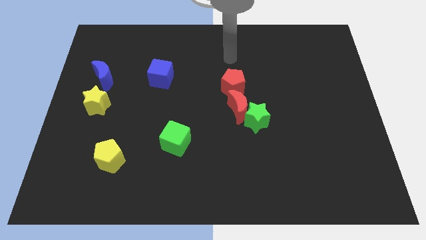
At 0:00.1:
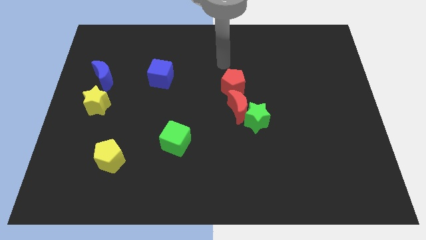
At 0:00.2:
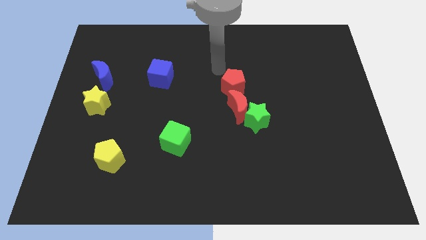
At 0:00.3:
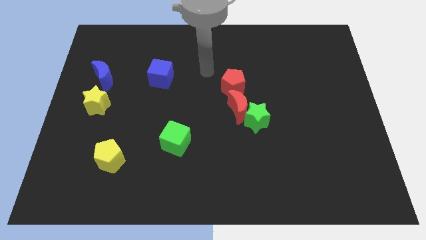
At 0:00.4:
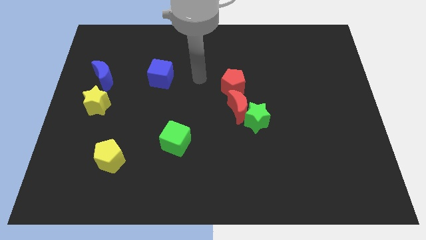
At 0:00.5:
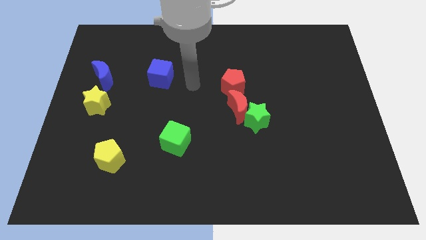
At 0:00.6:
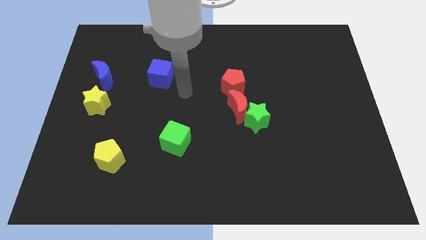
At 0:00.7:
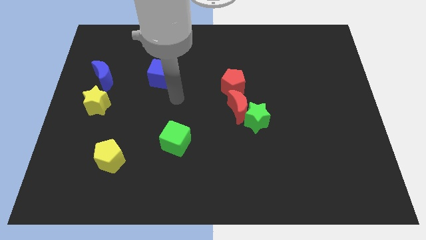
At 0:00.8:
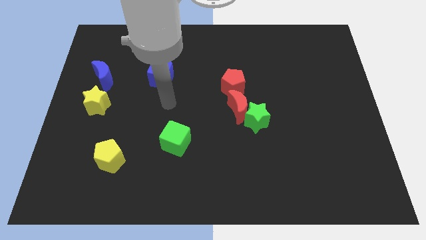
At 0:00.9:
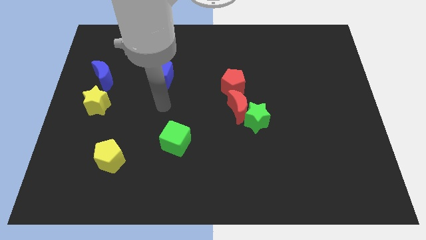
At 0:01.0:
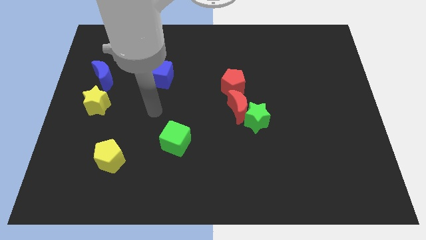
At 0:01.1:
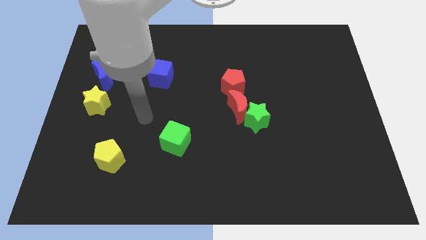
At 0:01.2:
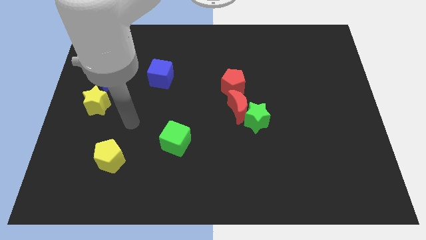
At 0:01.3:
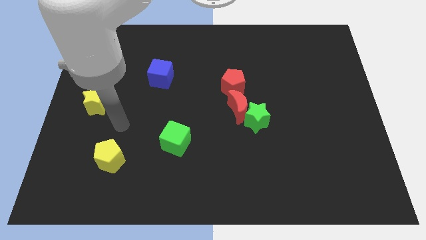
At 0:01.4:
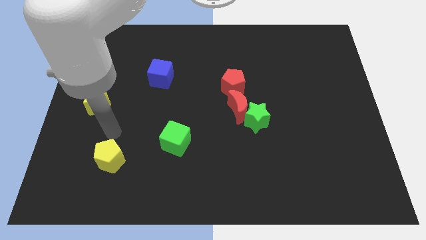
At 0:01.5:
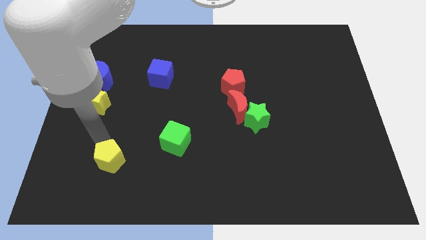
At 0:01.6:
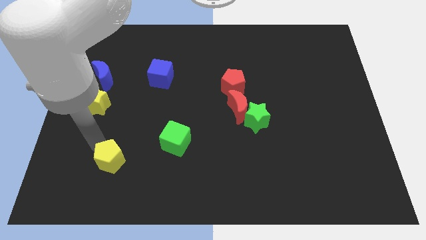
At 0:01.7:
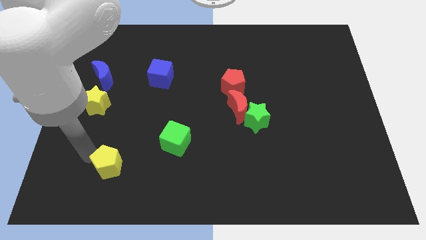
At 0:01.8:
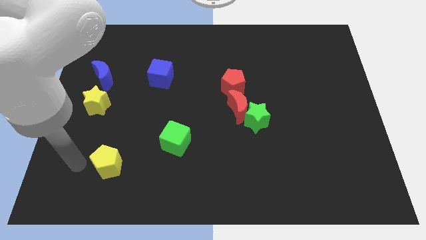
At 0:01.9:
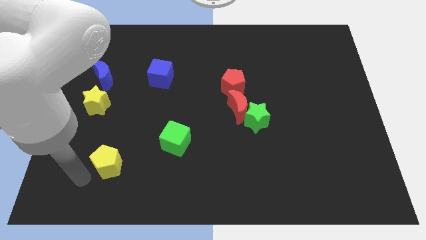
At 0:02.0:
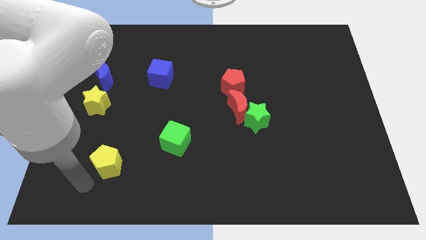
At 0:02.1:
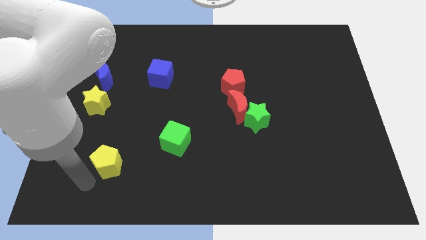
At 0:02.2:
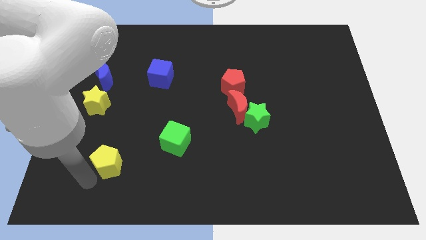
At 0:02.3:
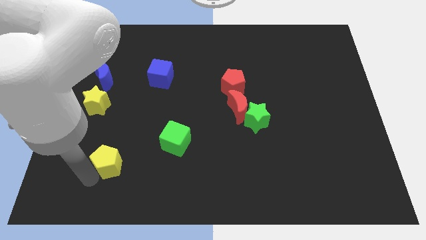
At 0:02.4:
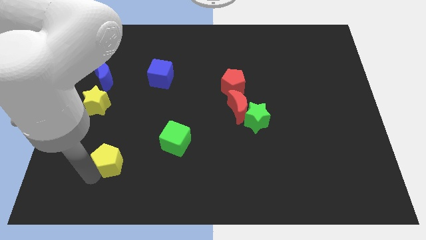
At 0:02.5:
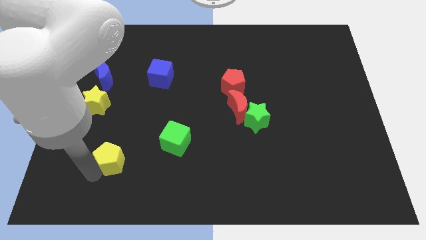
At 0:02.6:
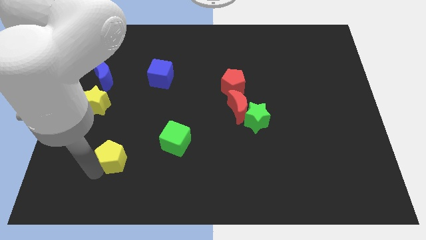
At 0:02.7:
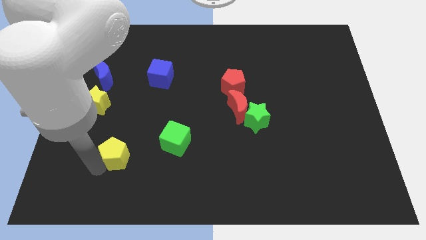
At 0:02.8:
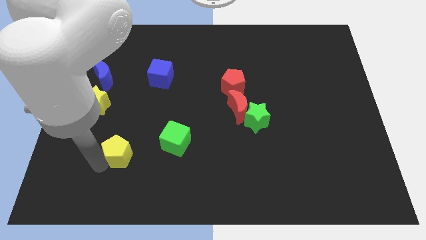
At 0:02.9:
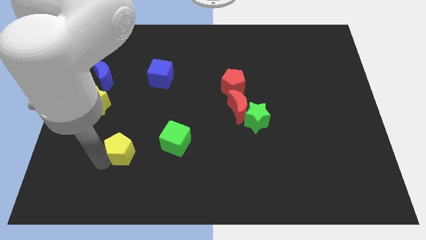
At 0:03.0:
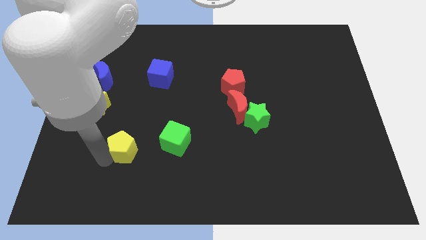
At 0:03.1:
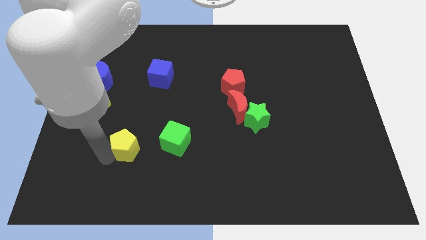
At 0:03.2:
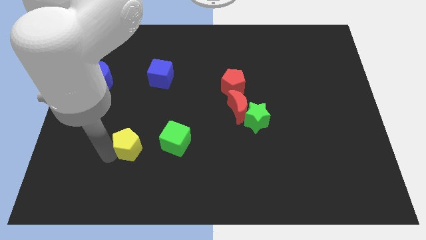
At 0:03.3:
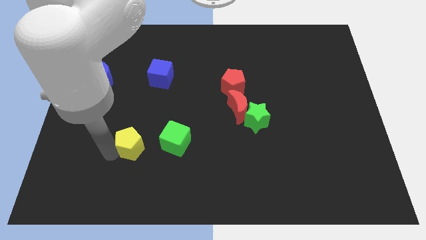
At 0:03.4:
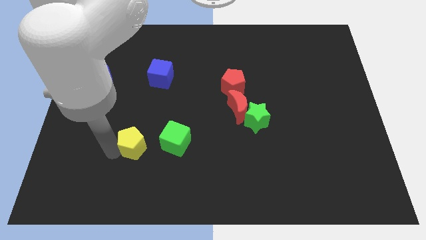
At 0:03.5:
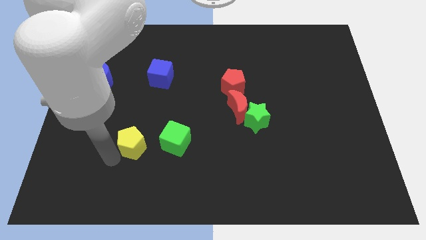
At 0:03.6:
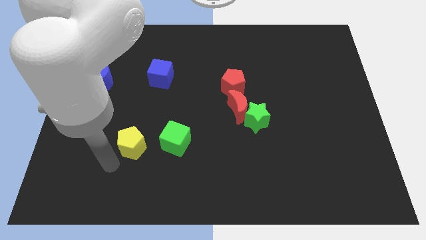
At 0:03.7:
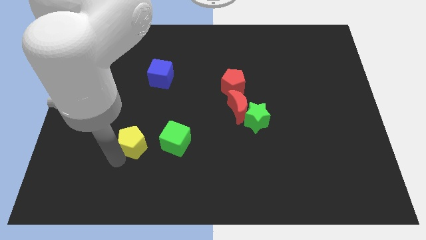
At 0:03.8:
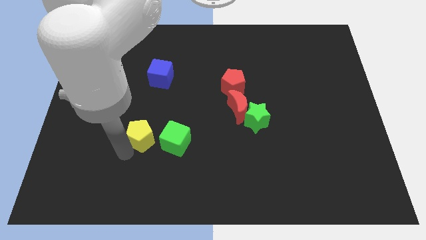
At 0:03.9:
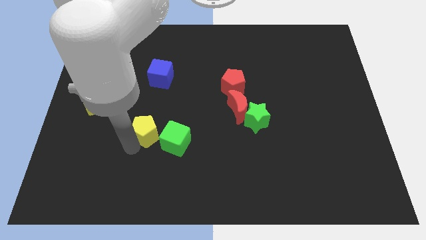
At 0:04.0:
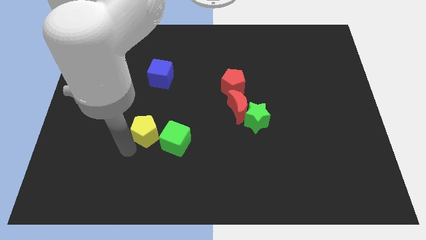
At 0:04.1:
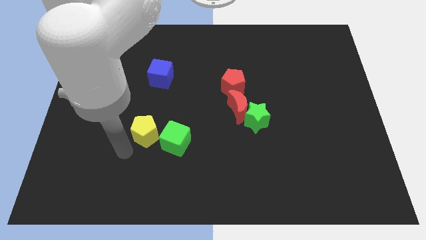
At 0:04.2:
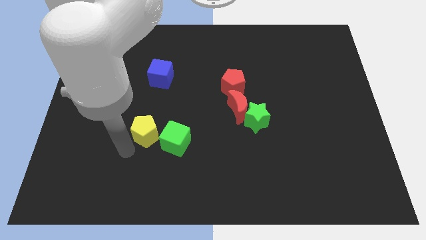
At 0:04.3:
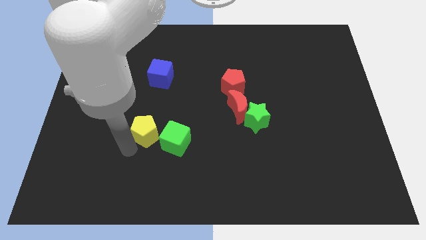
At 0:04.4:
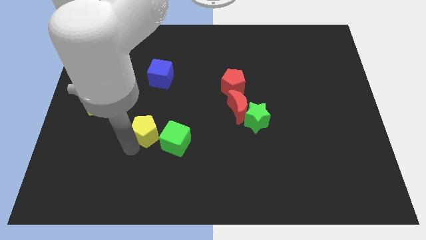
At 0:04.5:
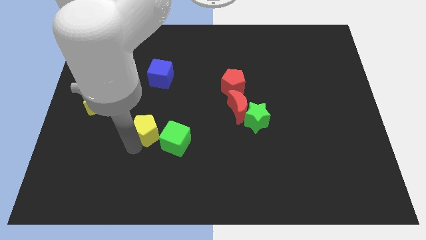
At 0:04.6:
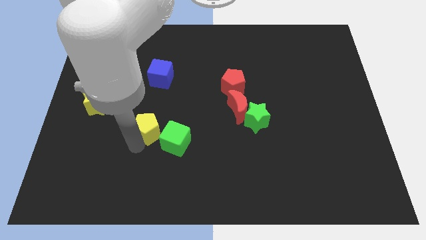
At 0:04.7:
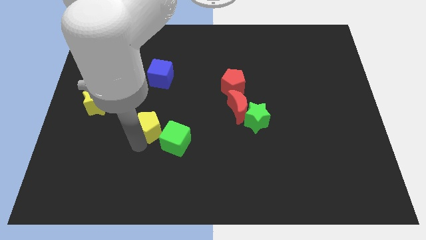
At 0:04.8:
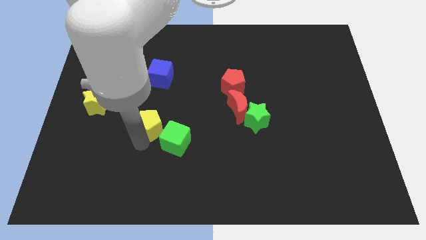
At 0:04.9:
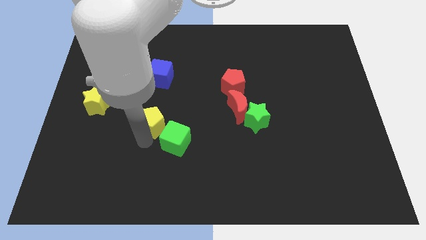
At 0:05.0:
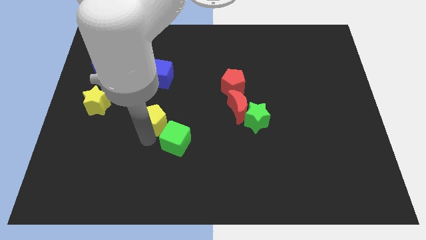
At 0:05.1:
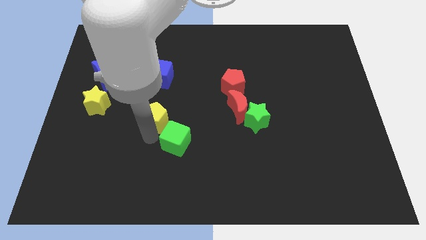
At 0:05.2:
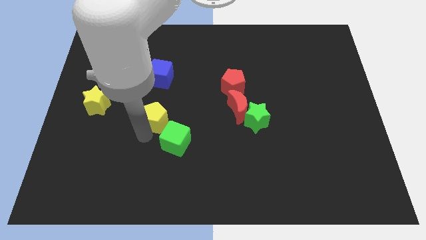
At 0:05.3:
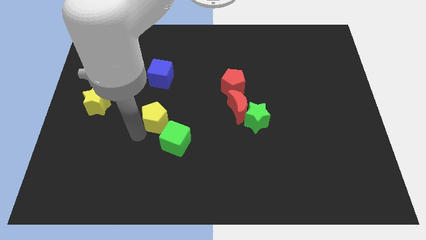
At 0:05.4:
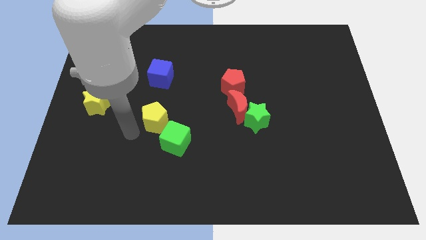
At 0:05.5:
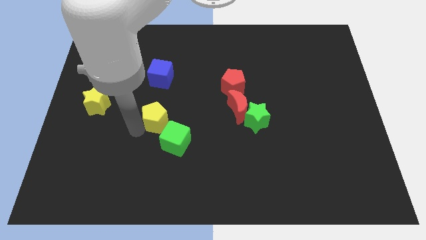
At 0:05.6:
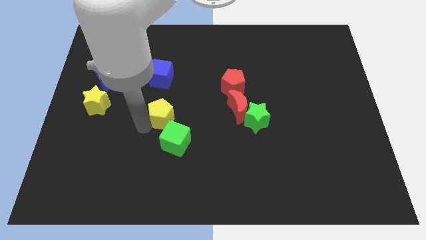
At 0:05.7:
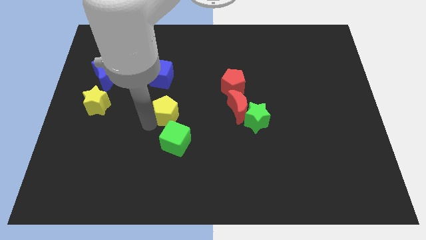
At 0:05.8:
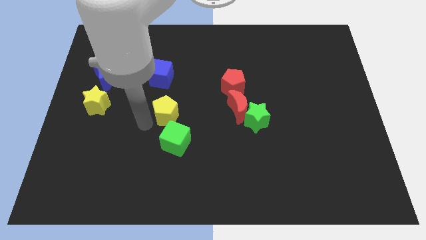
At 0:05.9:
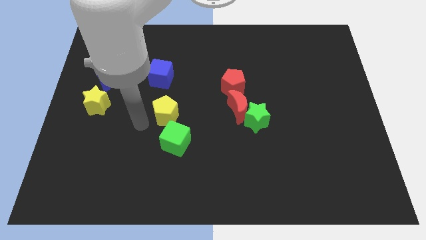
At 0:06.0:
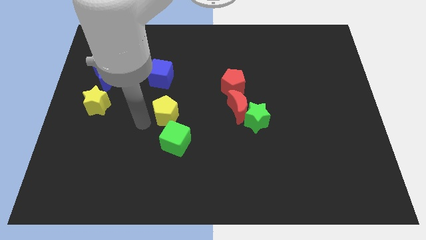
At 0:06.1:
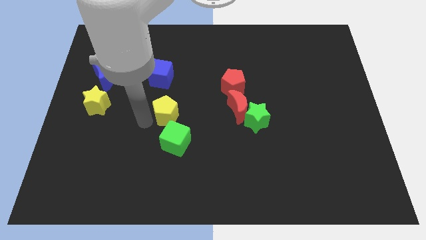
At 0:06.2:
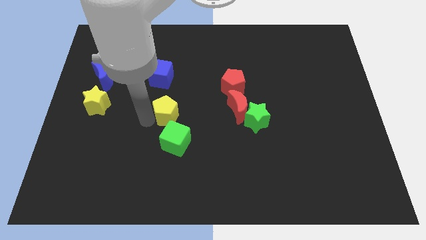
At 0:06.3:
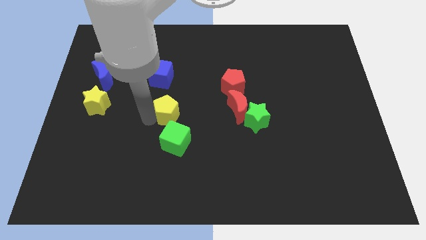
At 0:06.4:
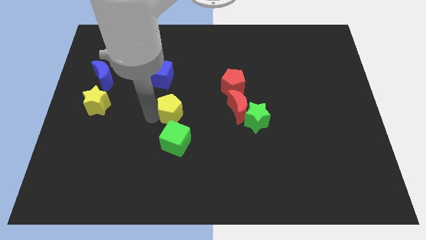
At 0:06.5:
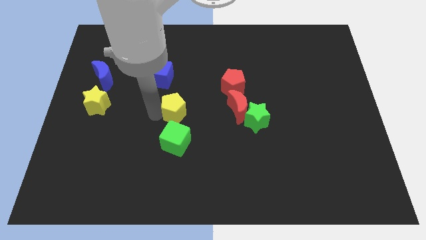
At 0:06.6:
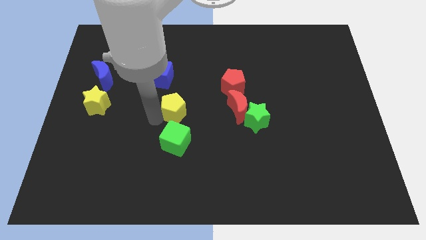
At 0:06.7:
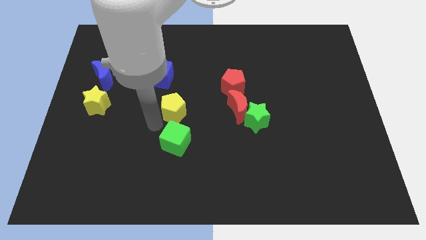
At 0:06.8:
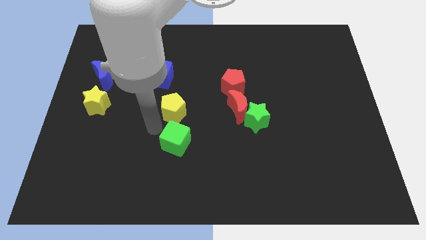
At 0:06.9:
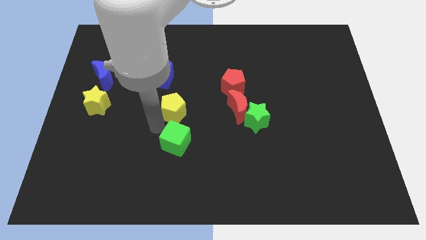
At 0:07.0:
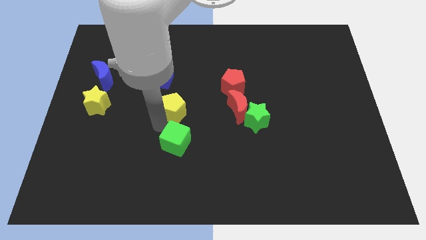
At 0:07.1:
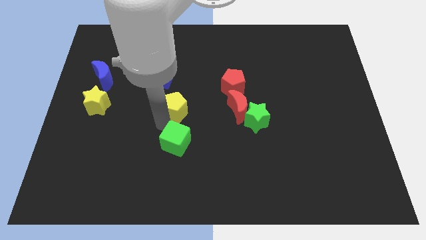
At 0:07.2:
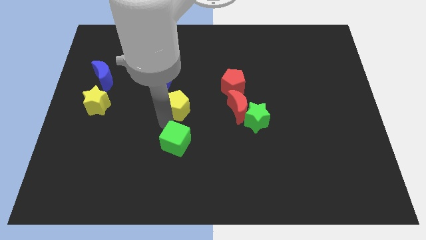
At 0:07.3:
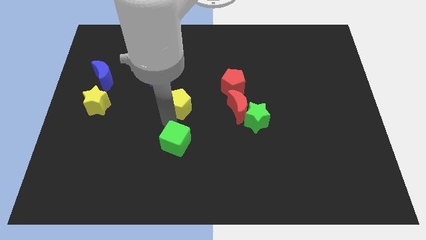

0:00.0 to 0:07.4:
slide the yellow pentagon up and right diagonally

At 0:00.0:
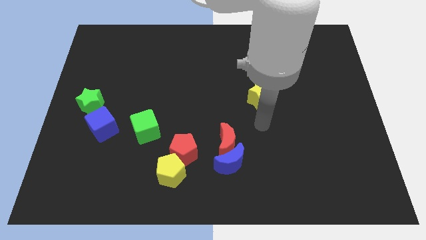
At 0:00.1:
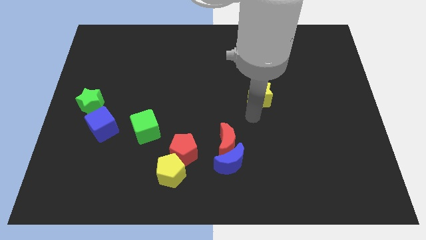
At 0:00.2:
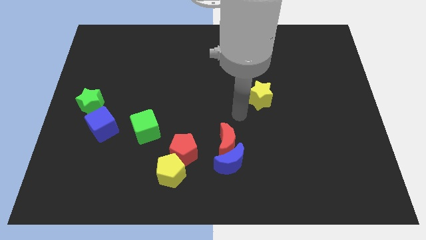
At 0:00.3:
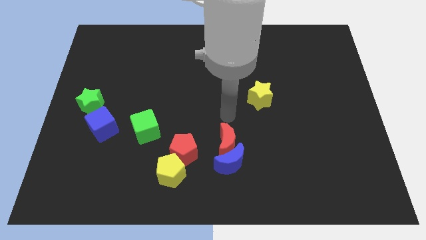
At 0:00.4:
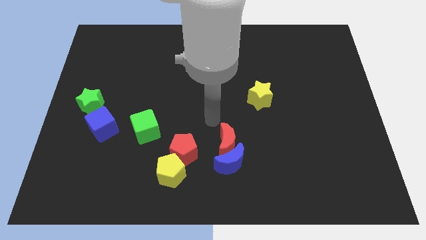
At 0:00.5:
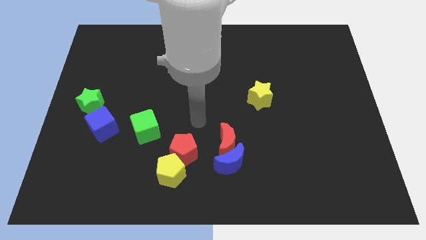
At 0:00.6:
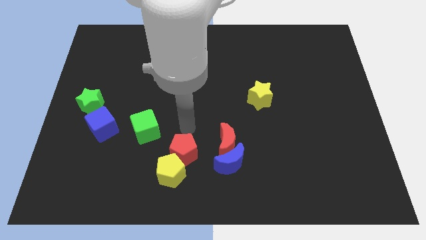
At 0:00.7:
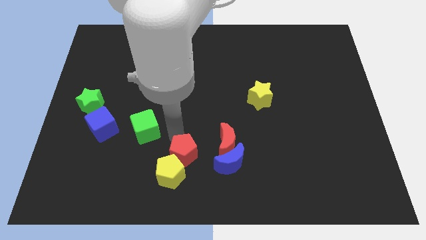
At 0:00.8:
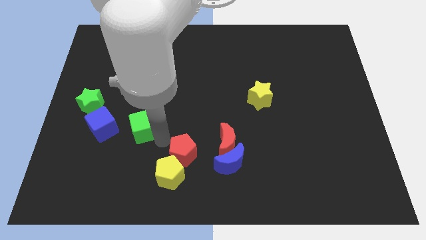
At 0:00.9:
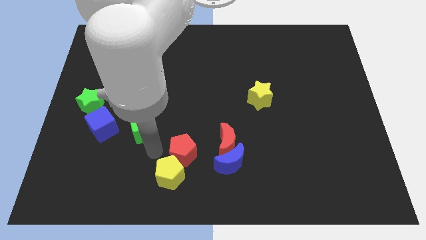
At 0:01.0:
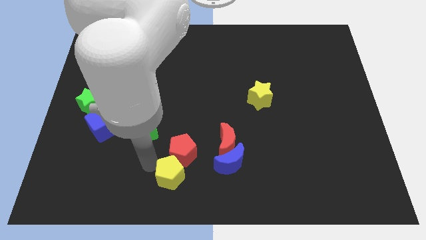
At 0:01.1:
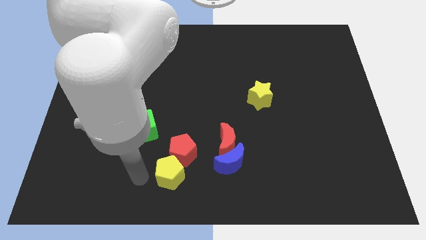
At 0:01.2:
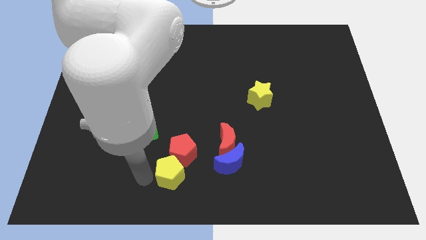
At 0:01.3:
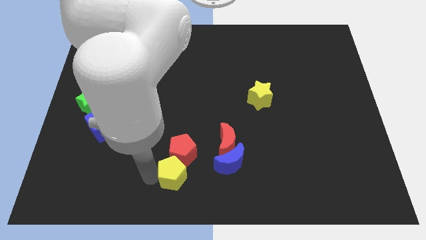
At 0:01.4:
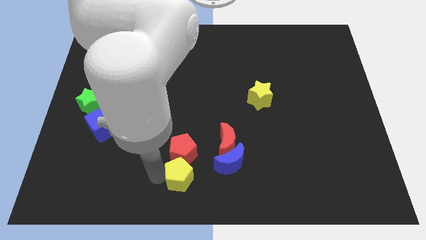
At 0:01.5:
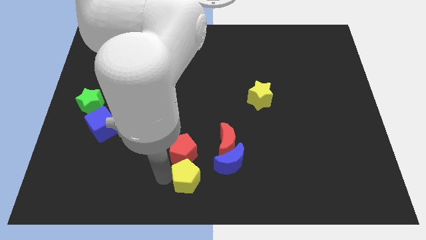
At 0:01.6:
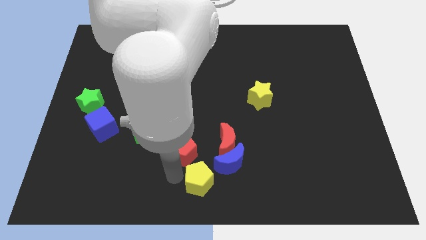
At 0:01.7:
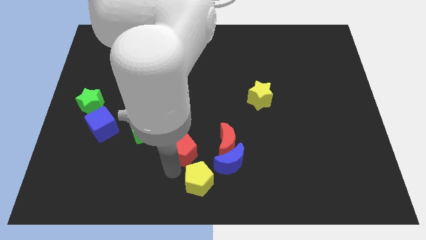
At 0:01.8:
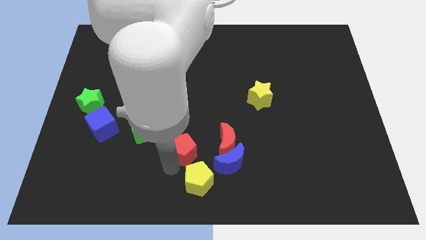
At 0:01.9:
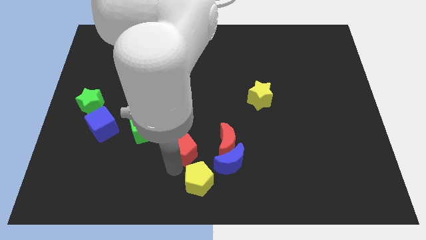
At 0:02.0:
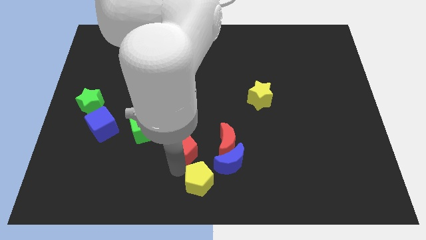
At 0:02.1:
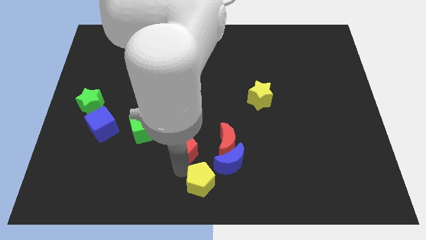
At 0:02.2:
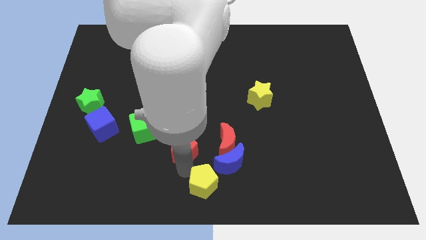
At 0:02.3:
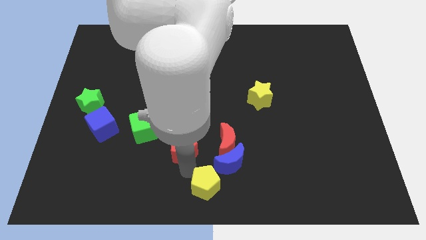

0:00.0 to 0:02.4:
move the yellow pentagon a little bit to the right
